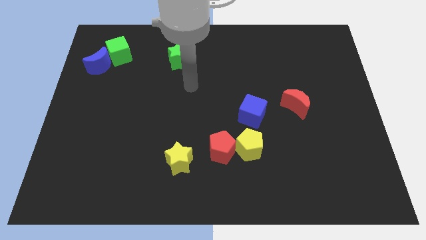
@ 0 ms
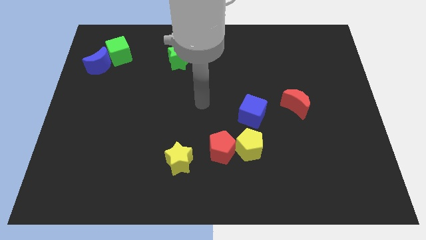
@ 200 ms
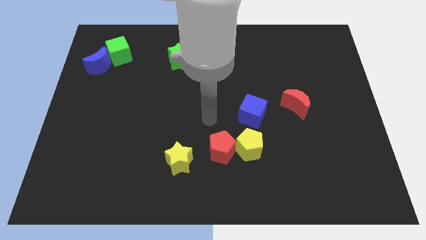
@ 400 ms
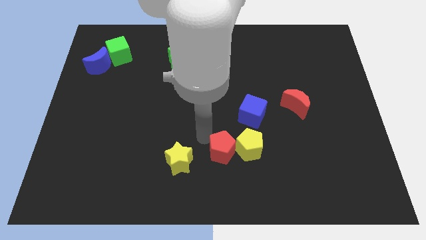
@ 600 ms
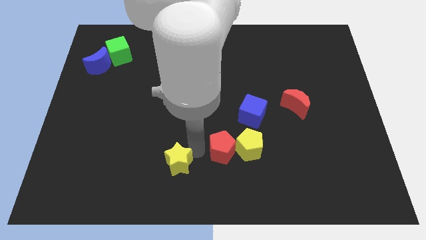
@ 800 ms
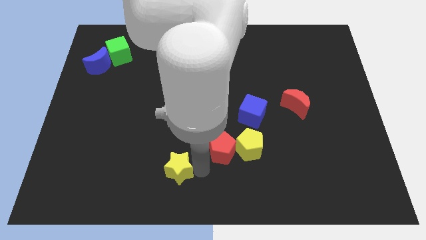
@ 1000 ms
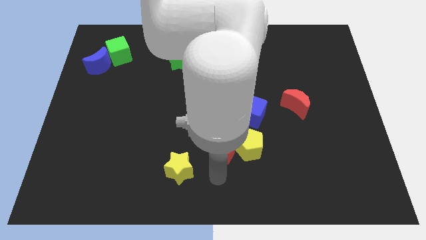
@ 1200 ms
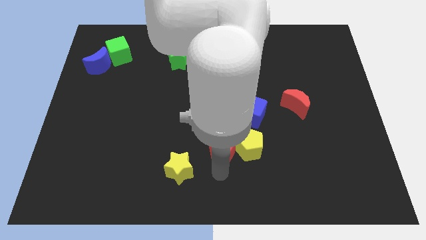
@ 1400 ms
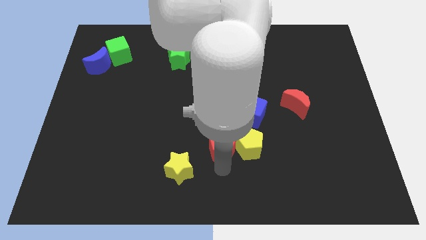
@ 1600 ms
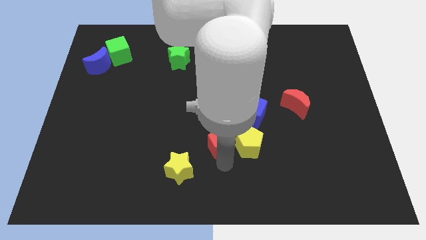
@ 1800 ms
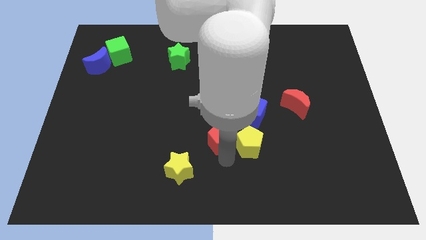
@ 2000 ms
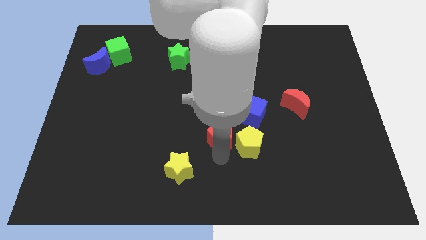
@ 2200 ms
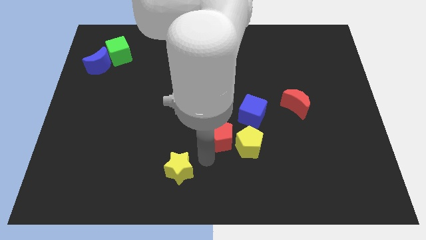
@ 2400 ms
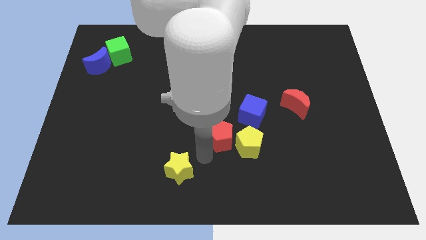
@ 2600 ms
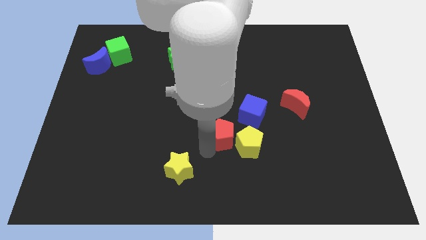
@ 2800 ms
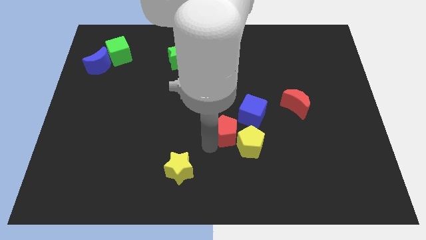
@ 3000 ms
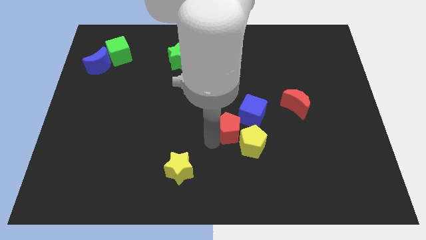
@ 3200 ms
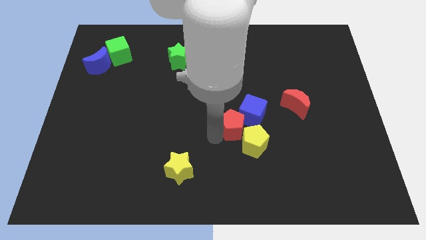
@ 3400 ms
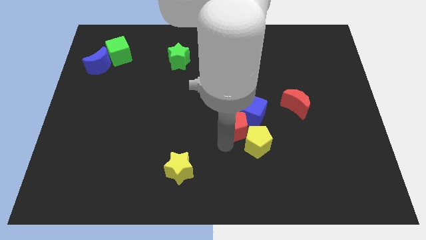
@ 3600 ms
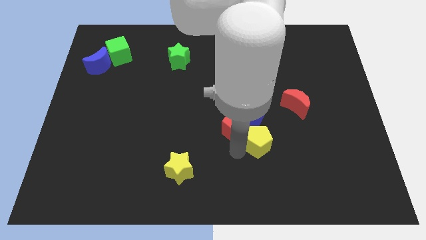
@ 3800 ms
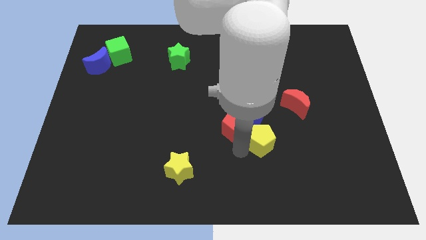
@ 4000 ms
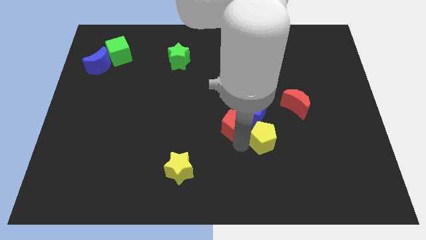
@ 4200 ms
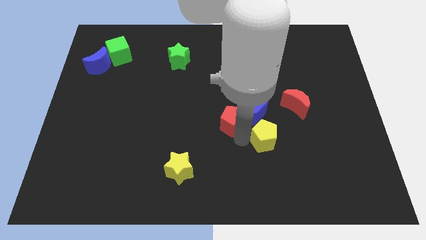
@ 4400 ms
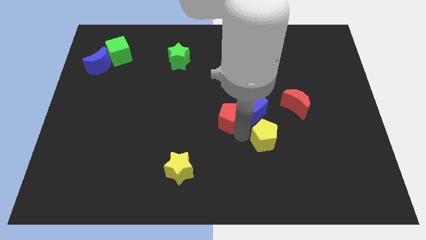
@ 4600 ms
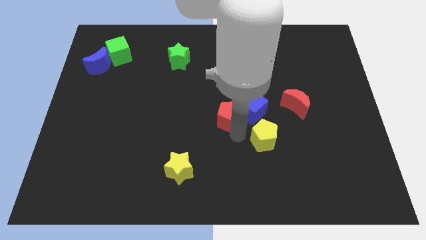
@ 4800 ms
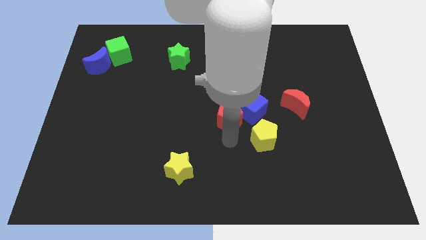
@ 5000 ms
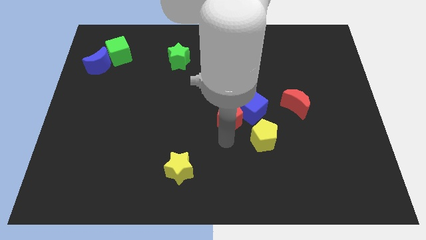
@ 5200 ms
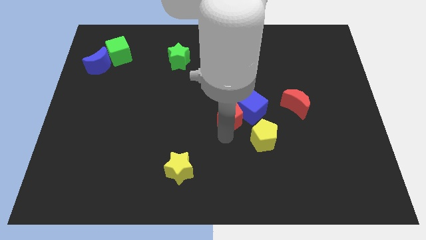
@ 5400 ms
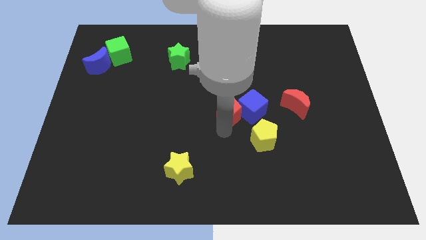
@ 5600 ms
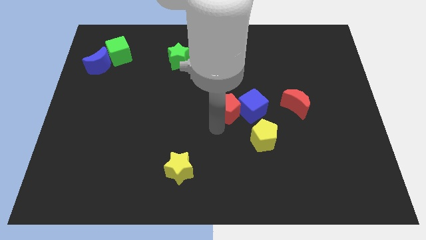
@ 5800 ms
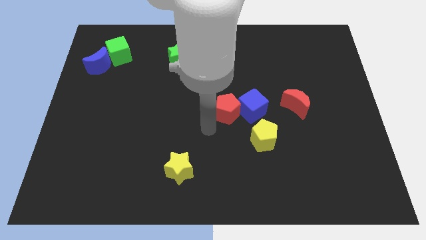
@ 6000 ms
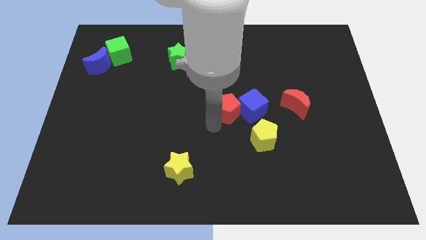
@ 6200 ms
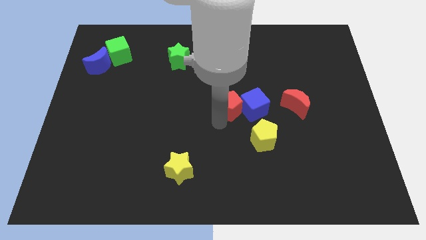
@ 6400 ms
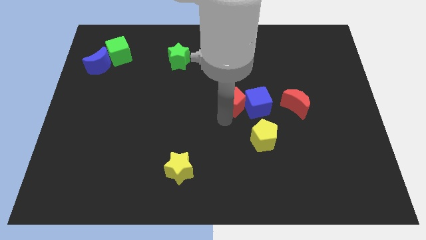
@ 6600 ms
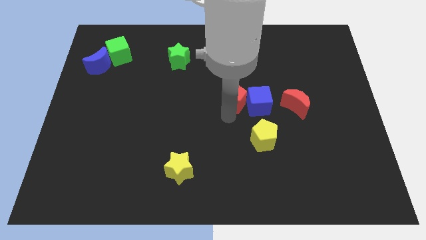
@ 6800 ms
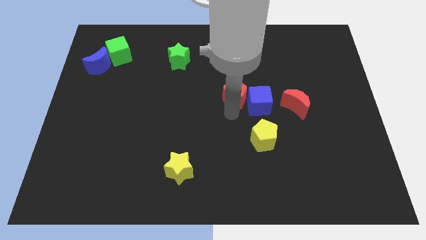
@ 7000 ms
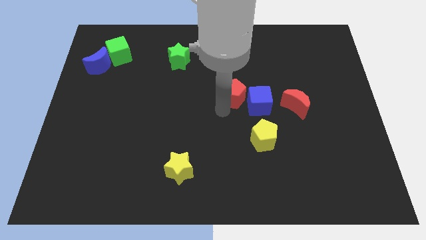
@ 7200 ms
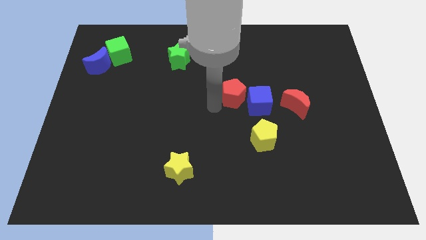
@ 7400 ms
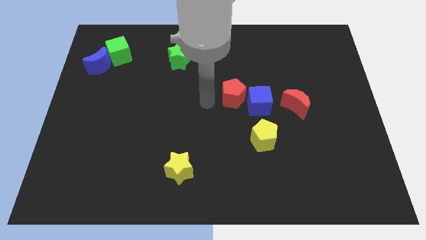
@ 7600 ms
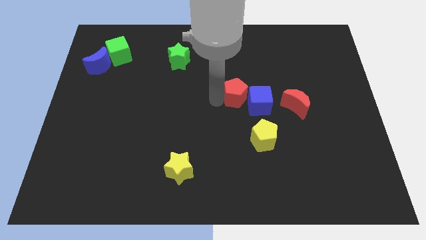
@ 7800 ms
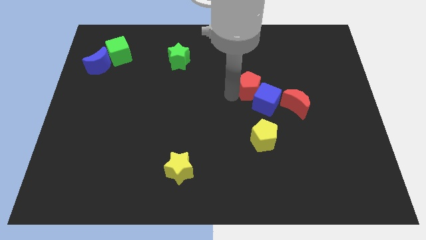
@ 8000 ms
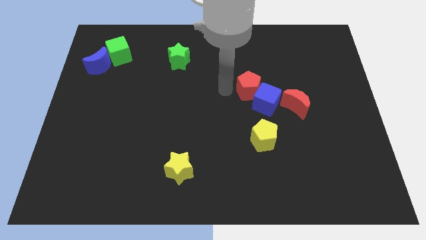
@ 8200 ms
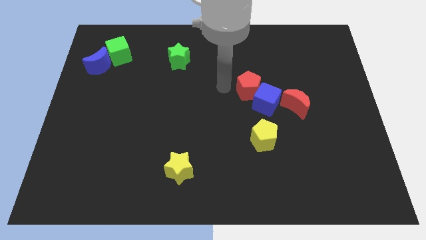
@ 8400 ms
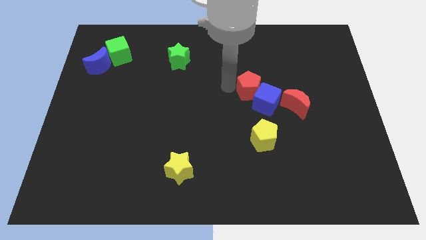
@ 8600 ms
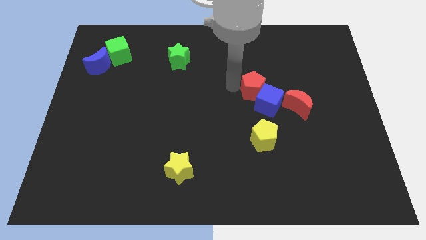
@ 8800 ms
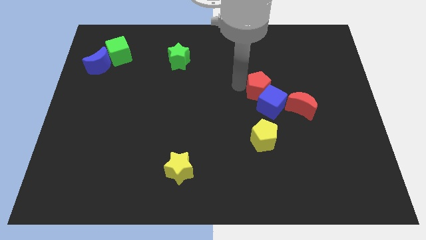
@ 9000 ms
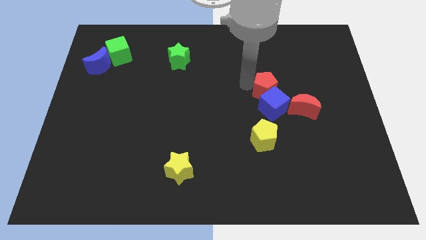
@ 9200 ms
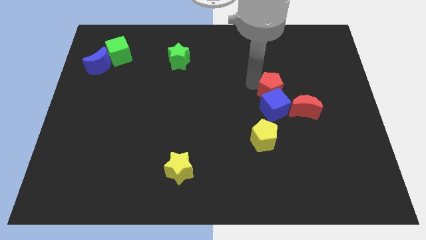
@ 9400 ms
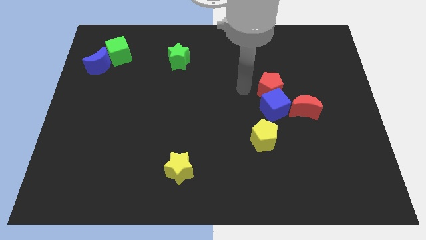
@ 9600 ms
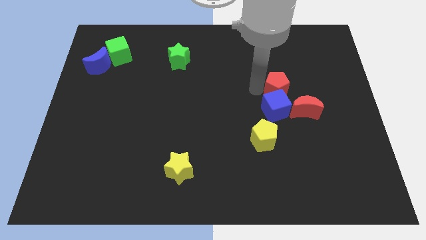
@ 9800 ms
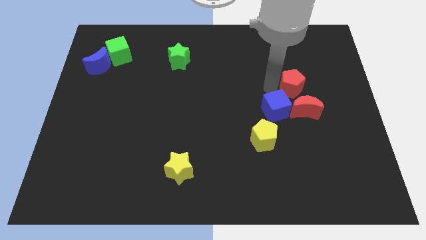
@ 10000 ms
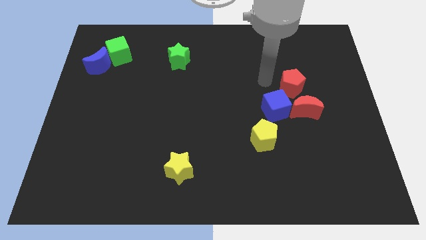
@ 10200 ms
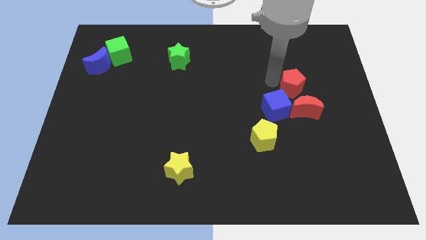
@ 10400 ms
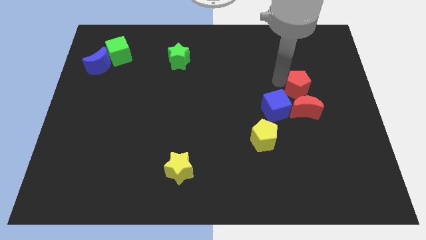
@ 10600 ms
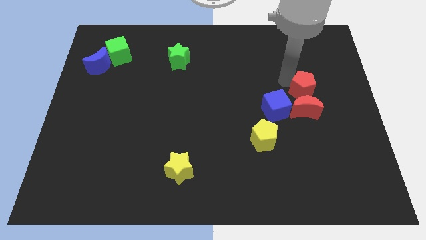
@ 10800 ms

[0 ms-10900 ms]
move the red pentagon to the top right of the red moon
